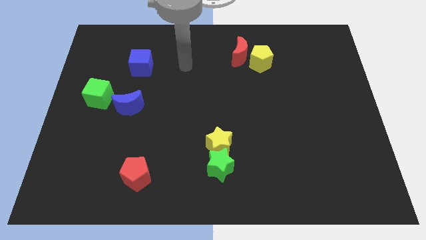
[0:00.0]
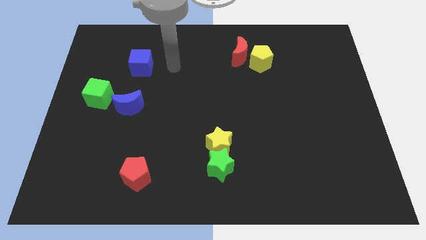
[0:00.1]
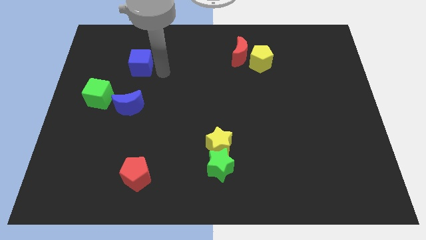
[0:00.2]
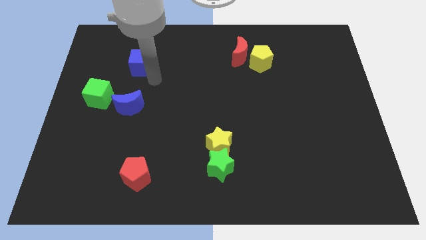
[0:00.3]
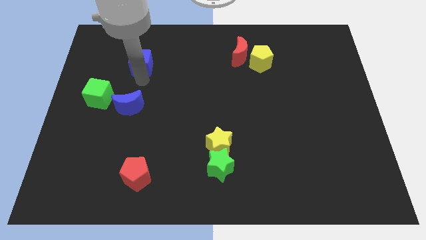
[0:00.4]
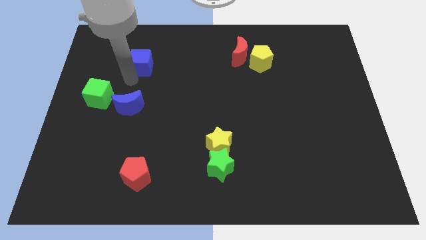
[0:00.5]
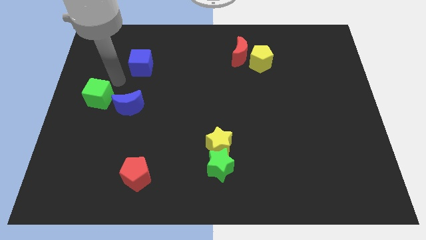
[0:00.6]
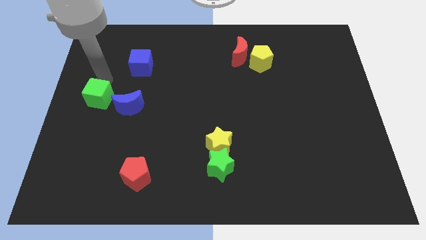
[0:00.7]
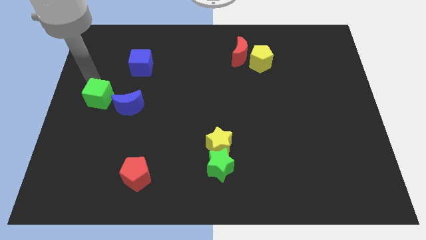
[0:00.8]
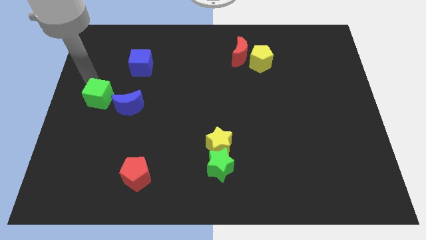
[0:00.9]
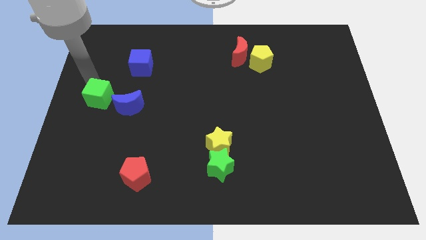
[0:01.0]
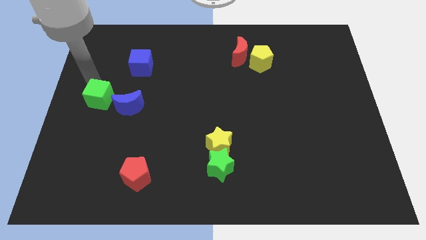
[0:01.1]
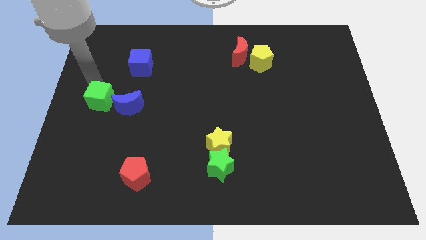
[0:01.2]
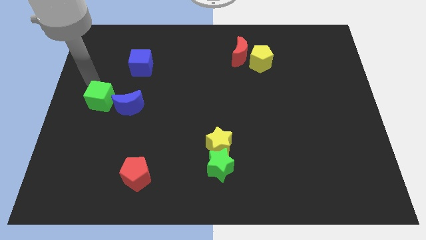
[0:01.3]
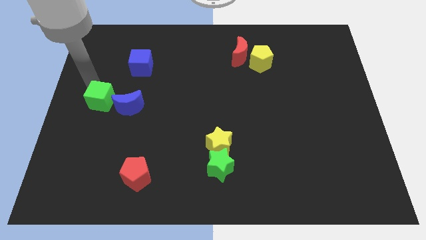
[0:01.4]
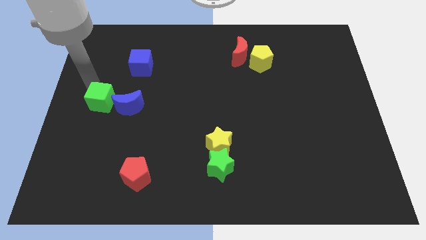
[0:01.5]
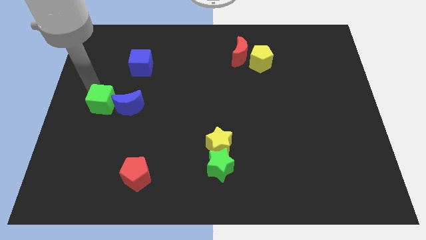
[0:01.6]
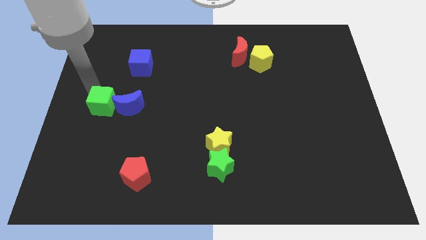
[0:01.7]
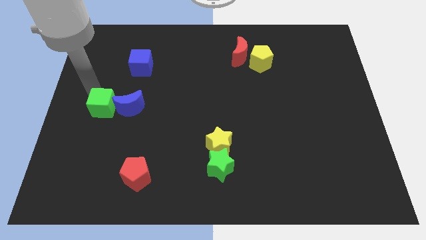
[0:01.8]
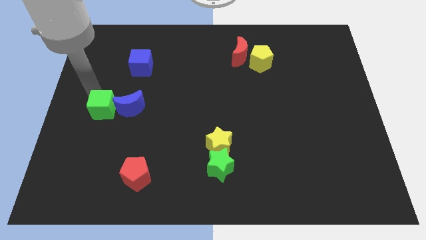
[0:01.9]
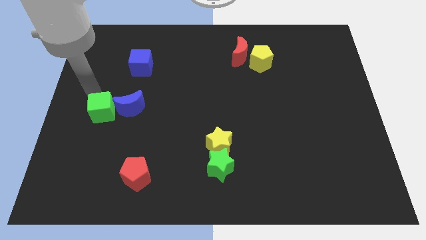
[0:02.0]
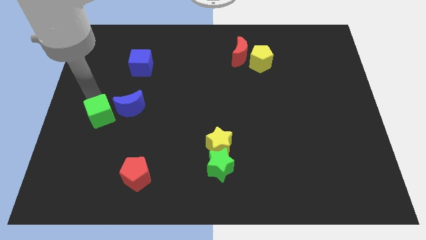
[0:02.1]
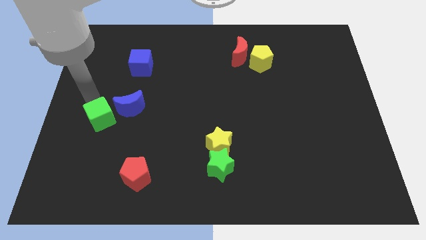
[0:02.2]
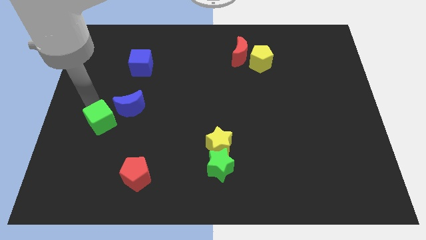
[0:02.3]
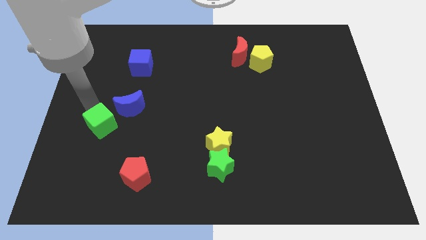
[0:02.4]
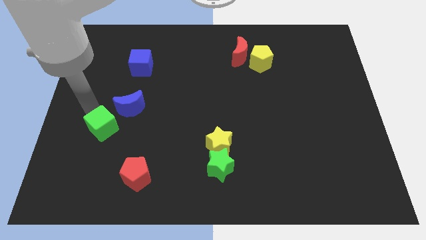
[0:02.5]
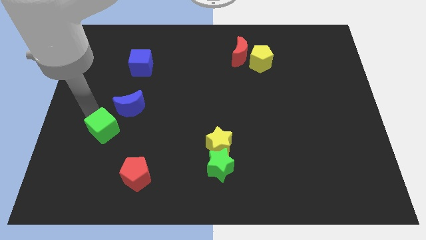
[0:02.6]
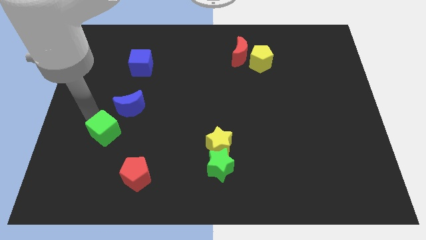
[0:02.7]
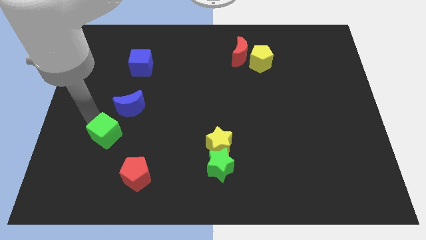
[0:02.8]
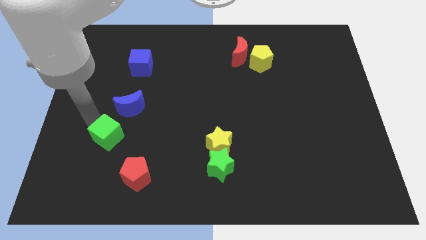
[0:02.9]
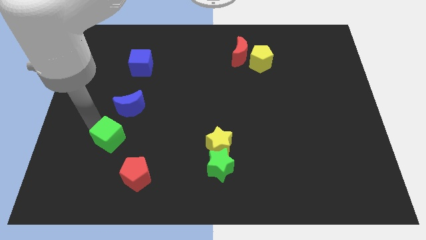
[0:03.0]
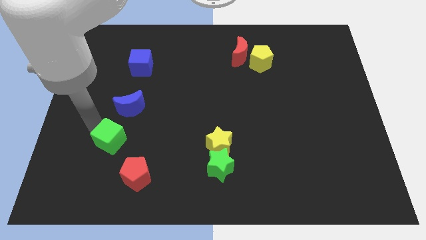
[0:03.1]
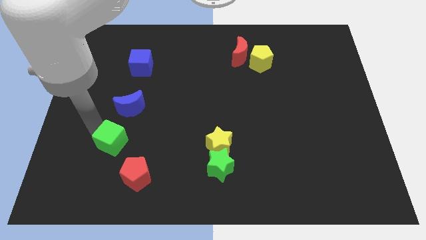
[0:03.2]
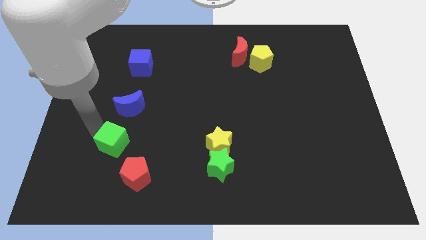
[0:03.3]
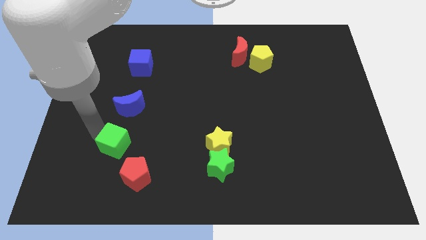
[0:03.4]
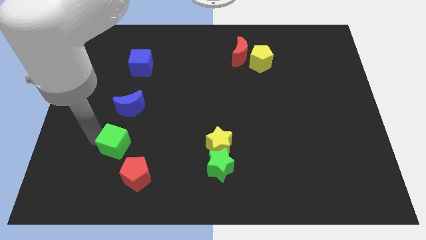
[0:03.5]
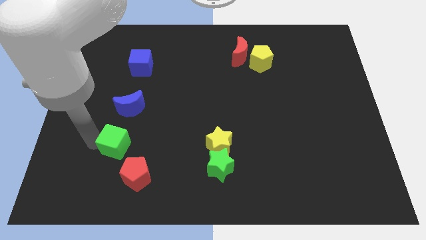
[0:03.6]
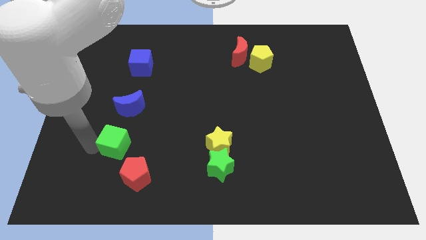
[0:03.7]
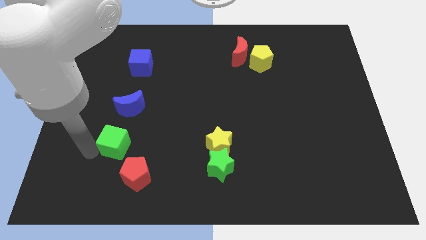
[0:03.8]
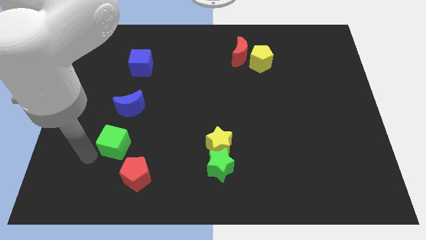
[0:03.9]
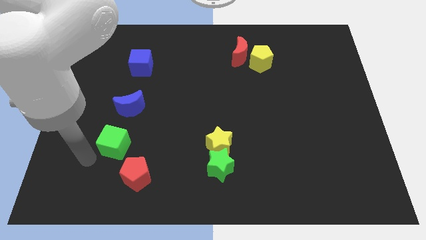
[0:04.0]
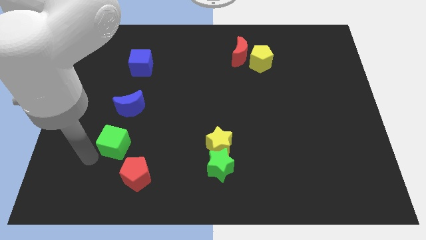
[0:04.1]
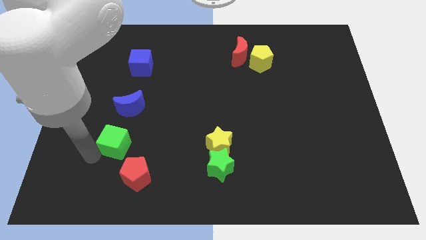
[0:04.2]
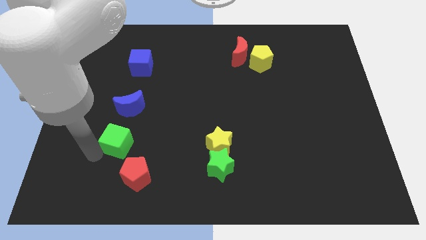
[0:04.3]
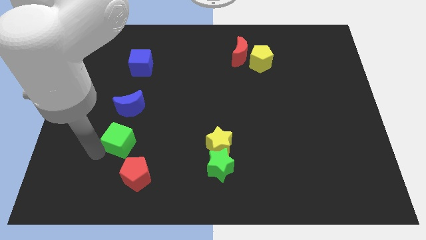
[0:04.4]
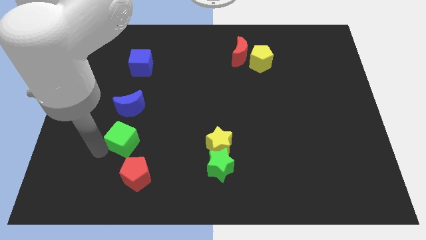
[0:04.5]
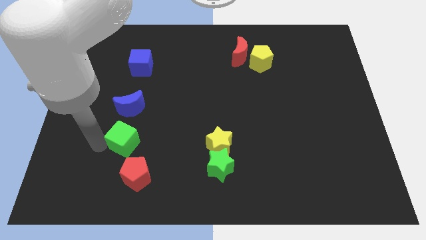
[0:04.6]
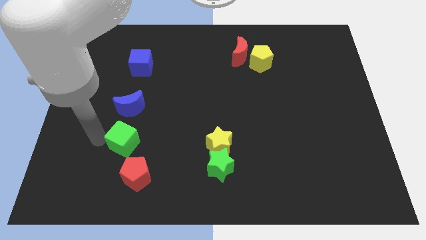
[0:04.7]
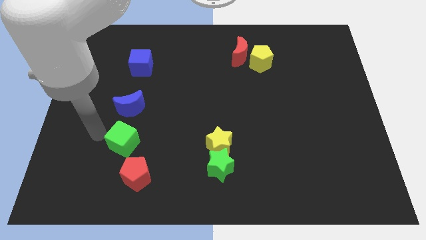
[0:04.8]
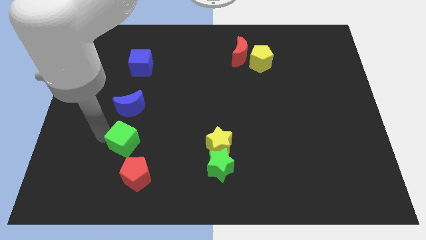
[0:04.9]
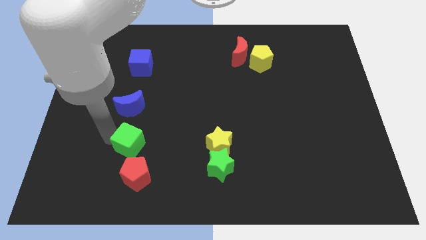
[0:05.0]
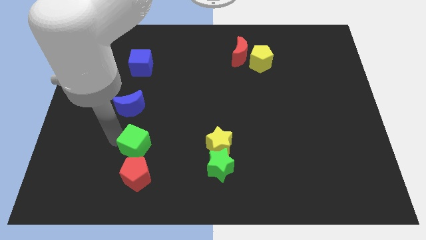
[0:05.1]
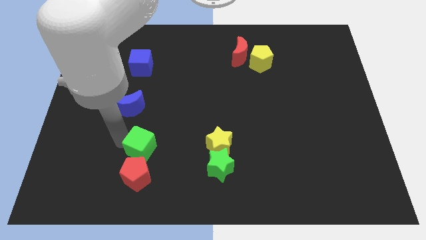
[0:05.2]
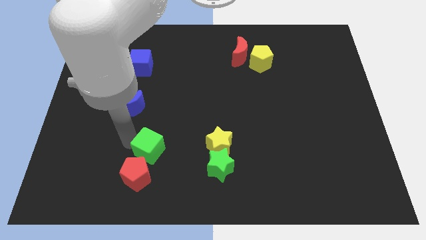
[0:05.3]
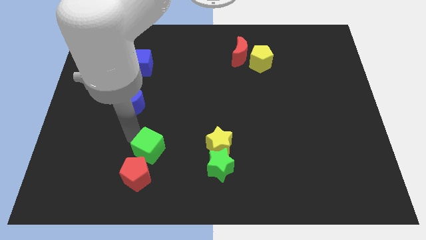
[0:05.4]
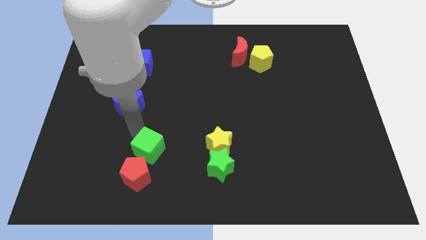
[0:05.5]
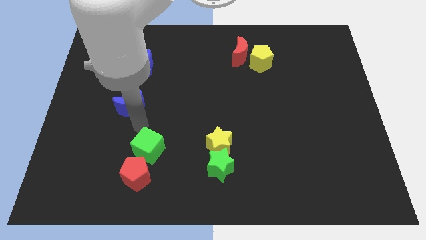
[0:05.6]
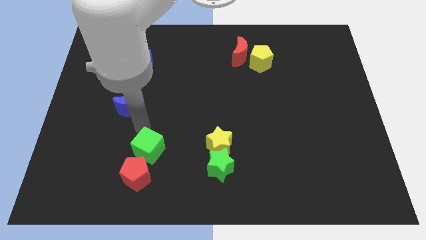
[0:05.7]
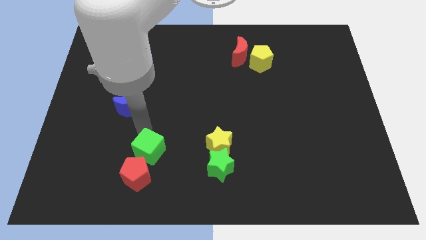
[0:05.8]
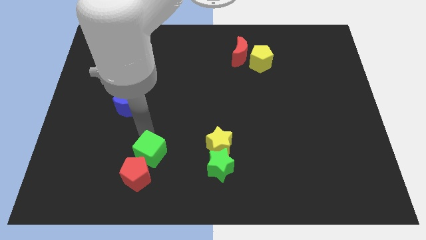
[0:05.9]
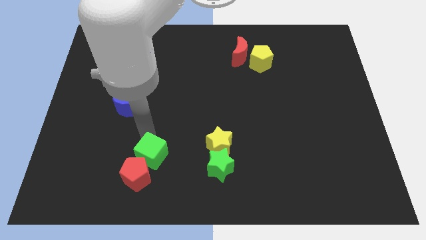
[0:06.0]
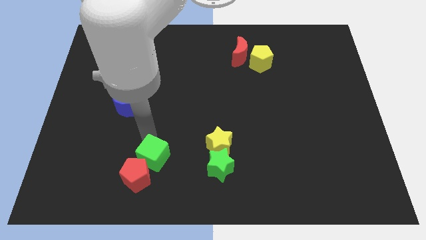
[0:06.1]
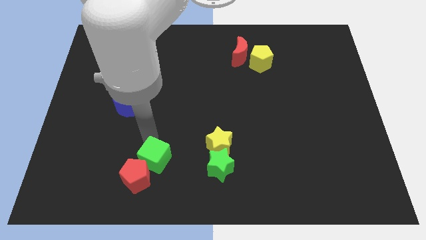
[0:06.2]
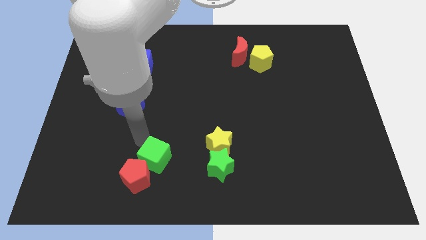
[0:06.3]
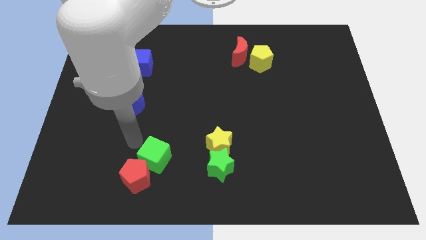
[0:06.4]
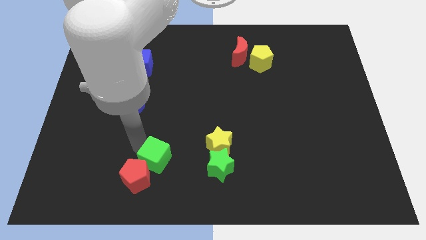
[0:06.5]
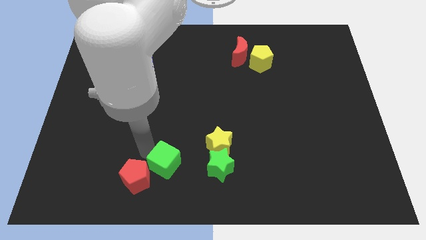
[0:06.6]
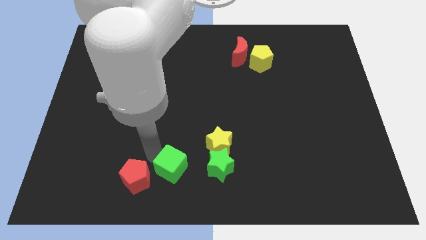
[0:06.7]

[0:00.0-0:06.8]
put the green cube to the bottom side

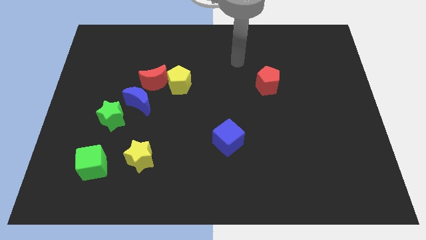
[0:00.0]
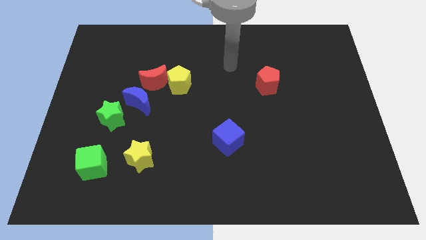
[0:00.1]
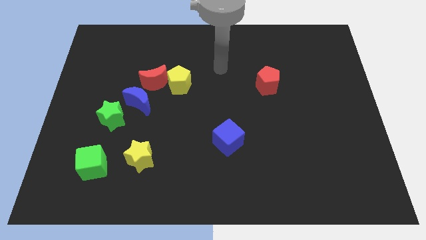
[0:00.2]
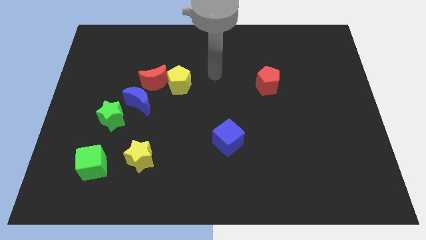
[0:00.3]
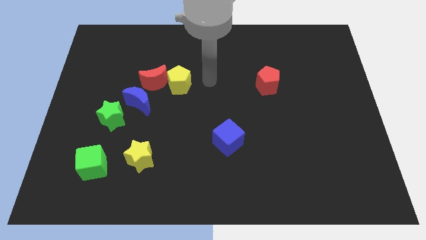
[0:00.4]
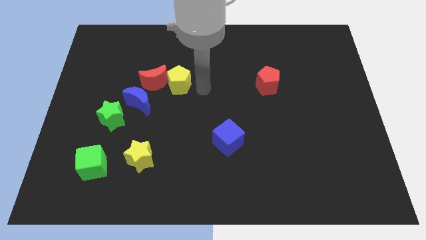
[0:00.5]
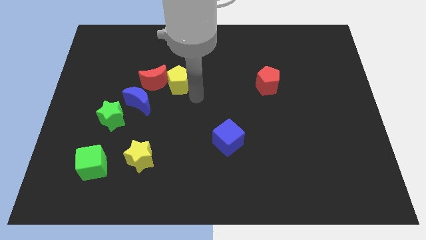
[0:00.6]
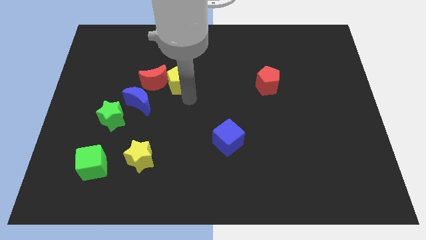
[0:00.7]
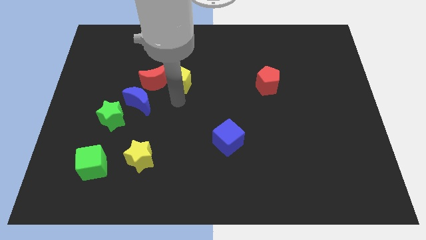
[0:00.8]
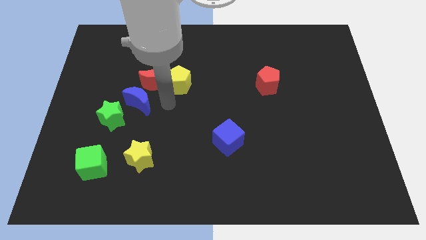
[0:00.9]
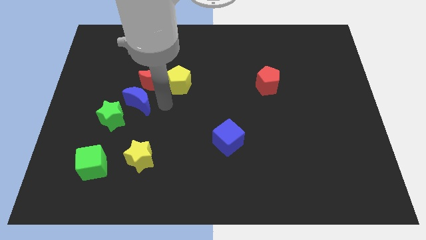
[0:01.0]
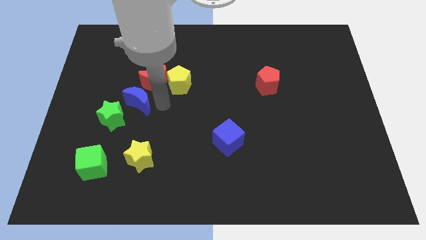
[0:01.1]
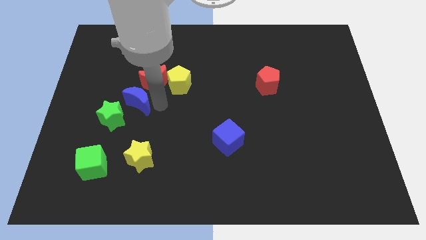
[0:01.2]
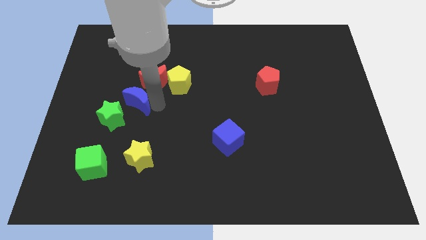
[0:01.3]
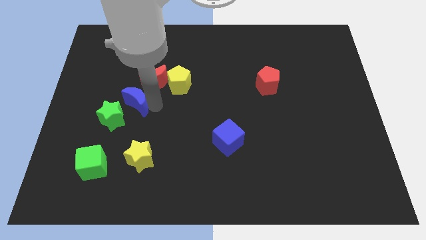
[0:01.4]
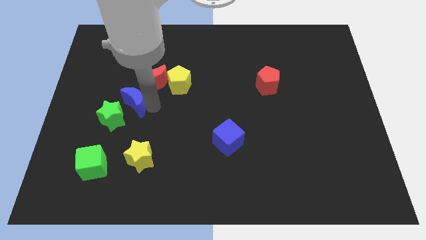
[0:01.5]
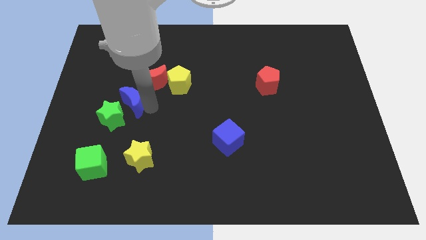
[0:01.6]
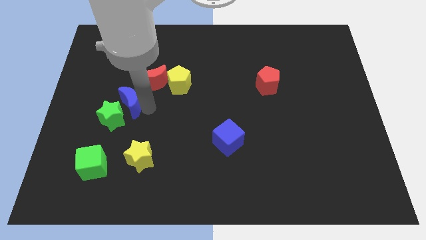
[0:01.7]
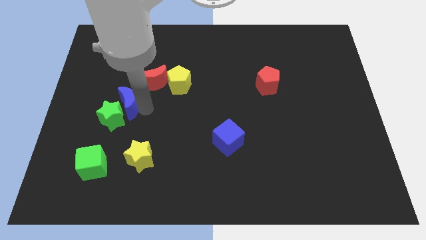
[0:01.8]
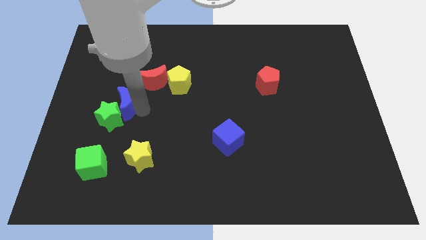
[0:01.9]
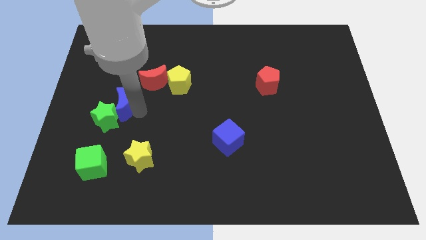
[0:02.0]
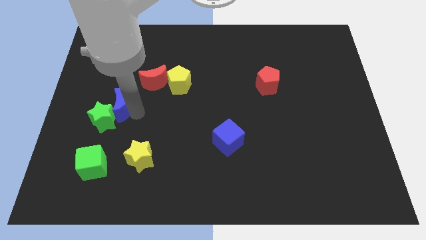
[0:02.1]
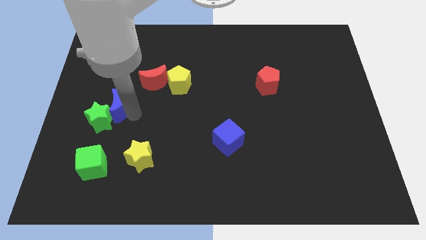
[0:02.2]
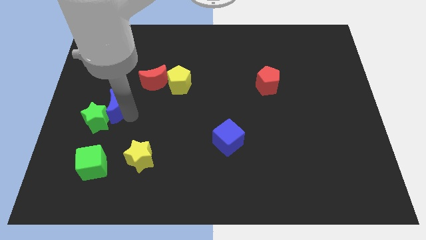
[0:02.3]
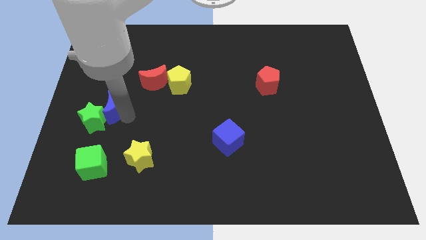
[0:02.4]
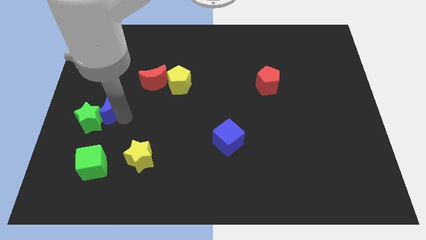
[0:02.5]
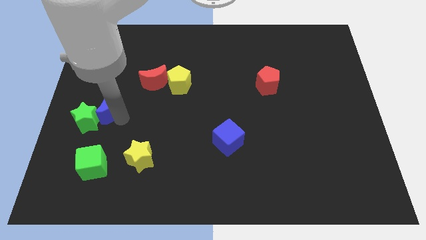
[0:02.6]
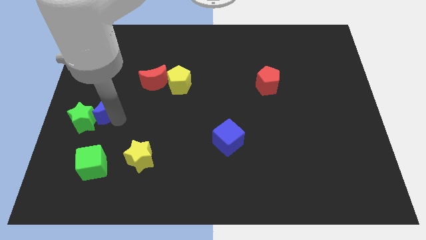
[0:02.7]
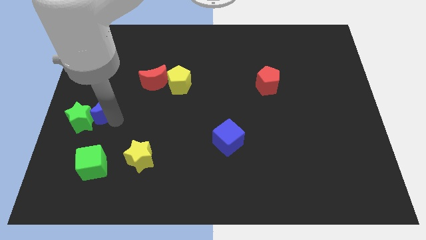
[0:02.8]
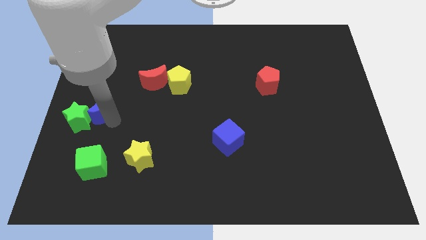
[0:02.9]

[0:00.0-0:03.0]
push the blue moon to the left side of the board
